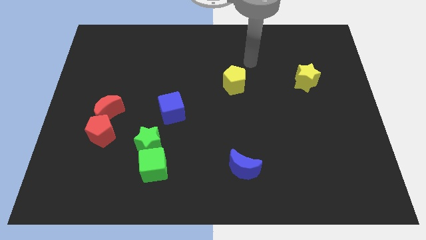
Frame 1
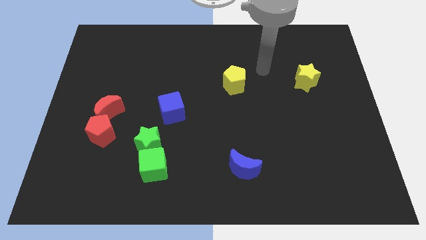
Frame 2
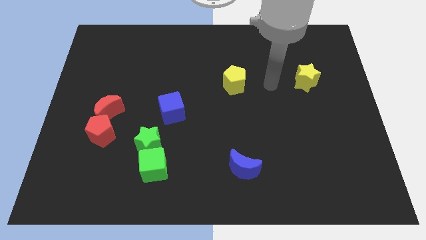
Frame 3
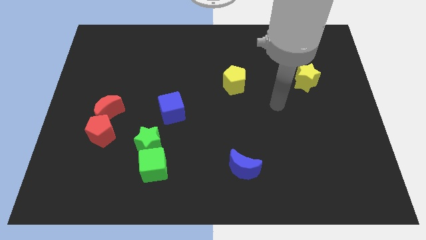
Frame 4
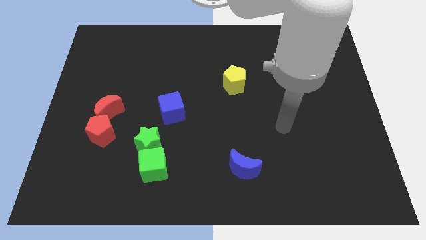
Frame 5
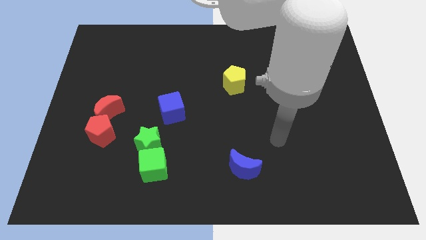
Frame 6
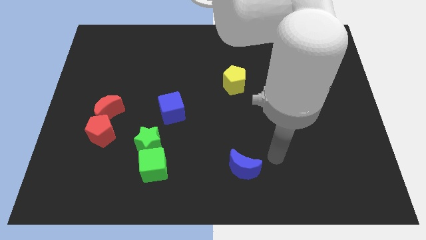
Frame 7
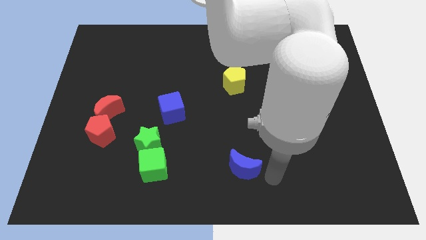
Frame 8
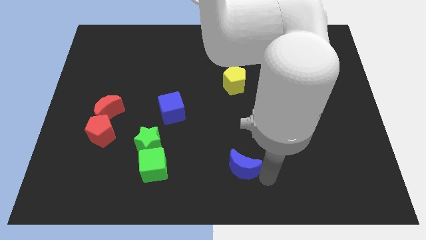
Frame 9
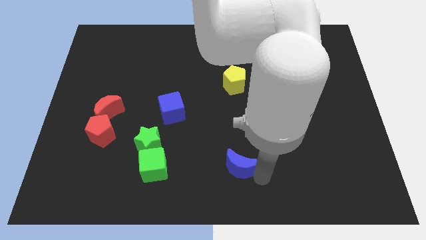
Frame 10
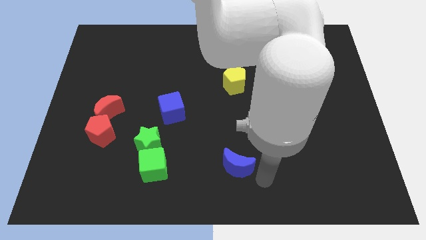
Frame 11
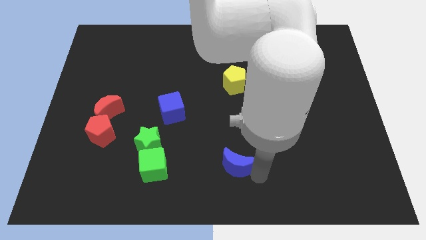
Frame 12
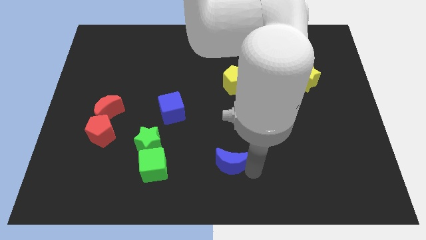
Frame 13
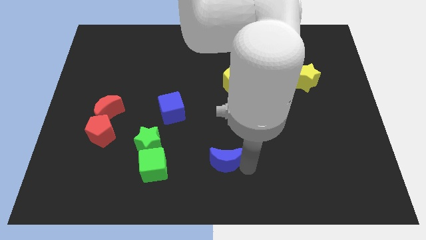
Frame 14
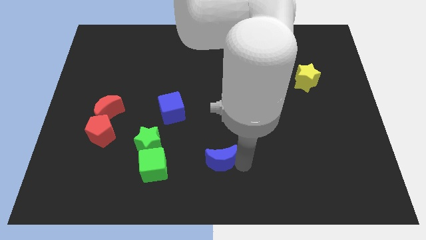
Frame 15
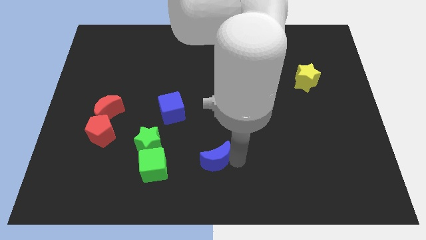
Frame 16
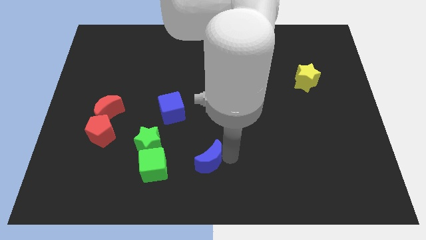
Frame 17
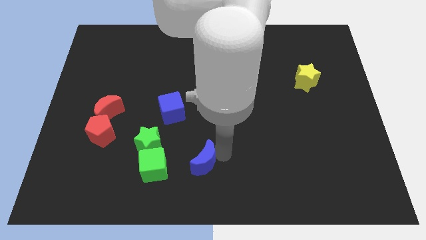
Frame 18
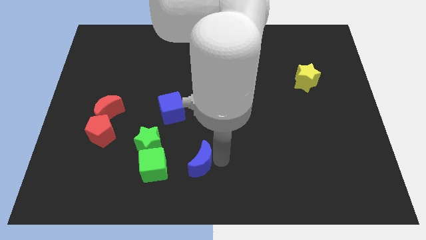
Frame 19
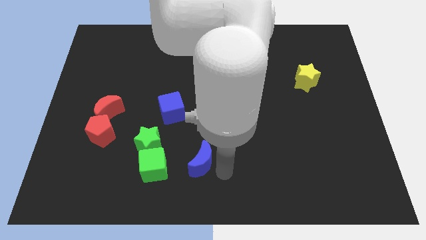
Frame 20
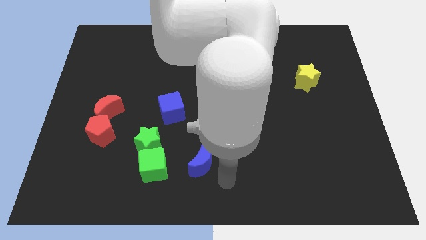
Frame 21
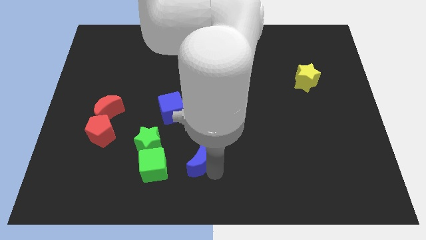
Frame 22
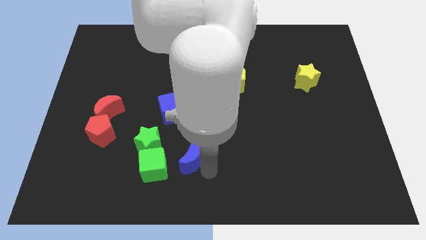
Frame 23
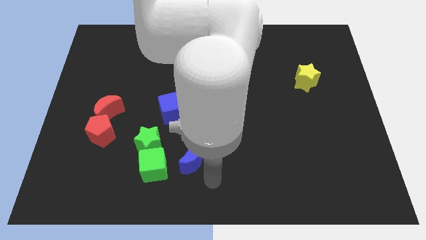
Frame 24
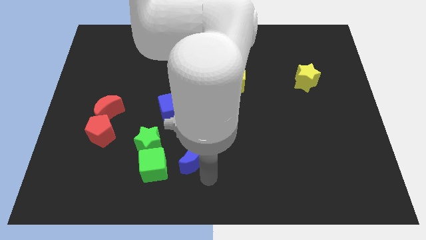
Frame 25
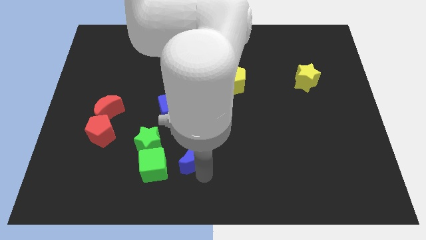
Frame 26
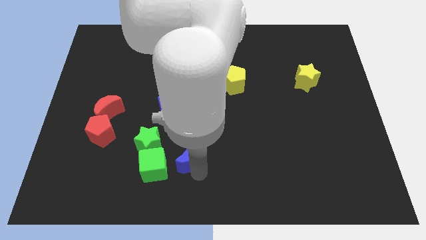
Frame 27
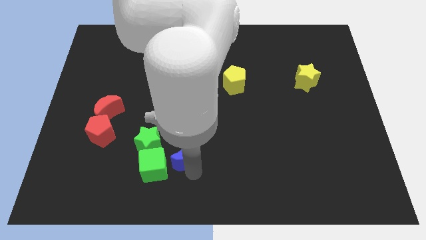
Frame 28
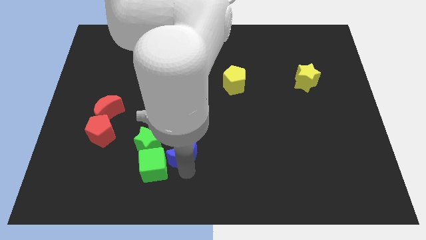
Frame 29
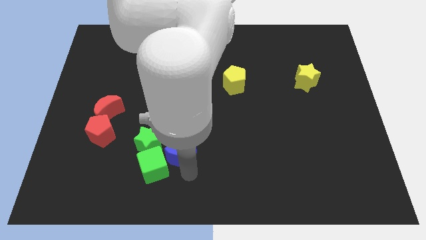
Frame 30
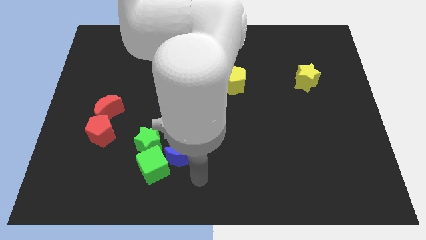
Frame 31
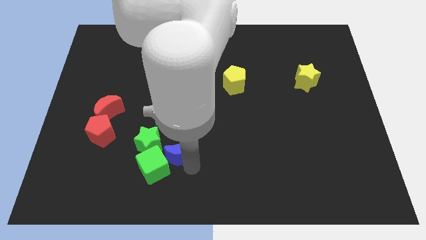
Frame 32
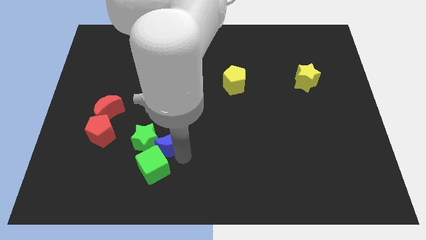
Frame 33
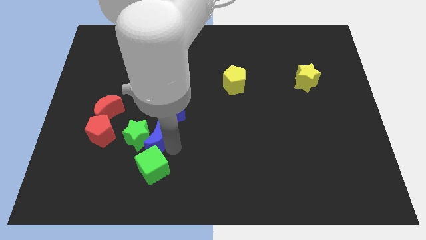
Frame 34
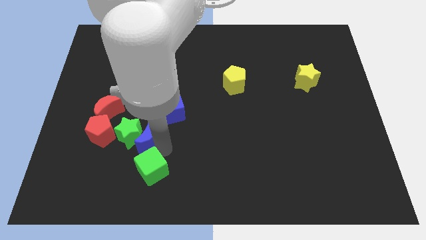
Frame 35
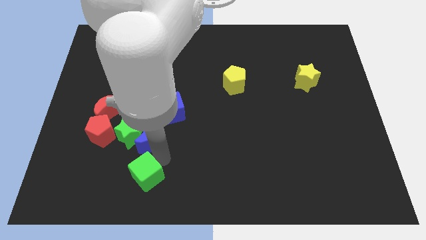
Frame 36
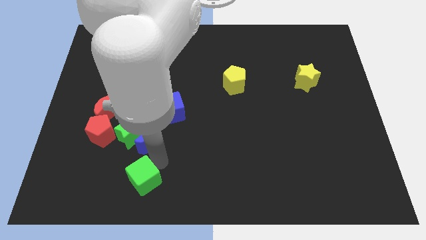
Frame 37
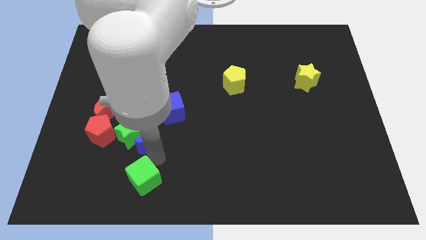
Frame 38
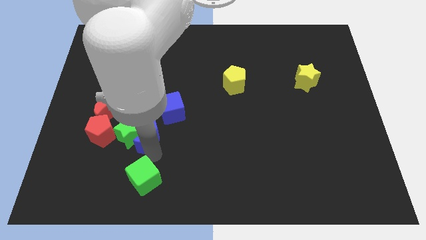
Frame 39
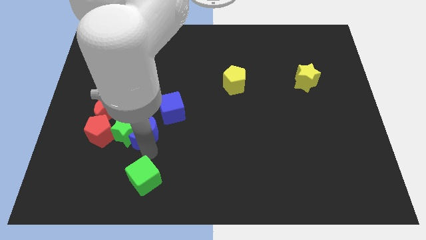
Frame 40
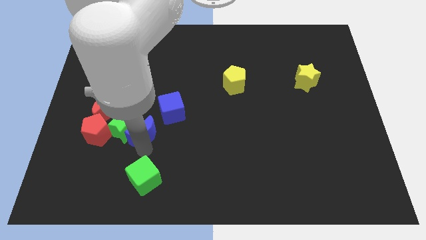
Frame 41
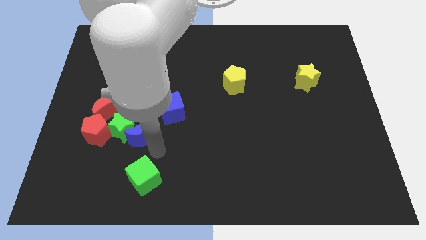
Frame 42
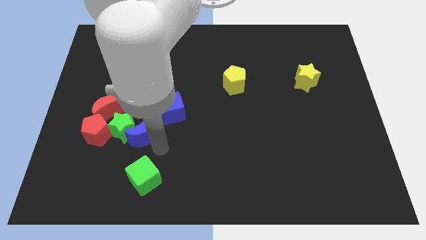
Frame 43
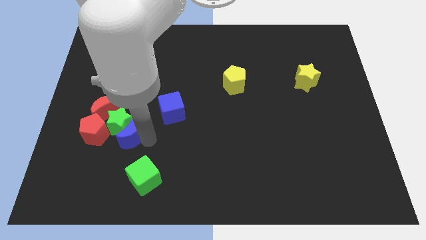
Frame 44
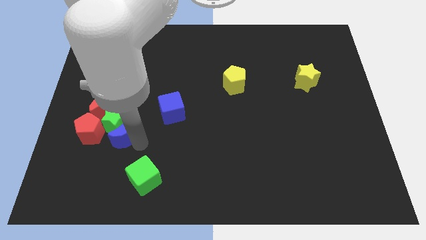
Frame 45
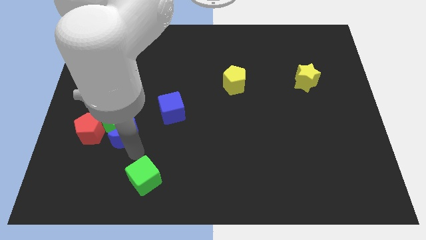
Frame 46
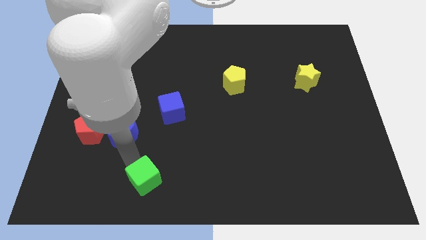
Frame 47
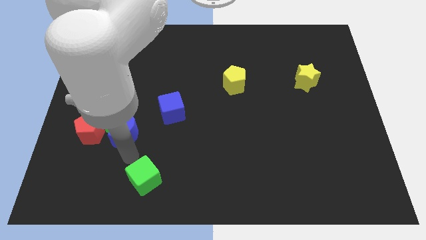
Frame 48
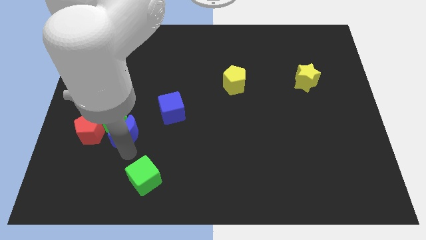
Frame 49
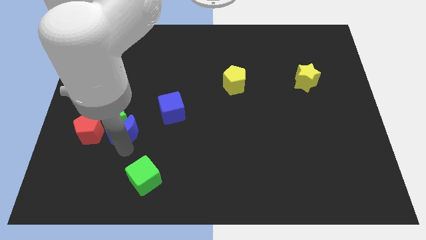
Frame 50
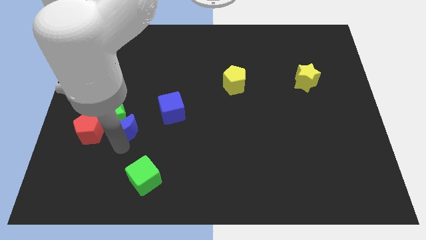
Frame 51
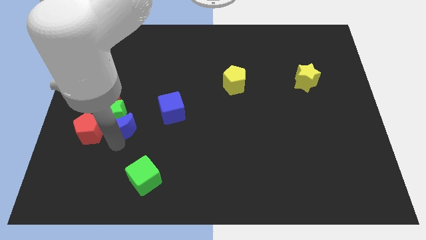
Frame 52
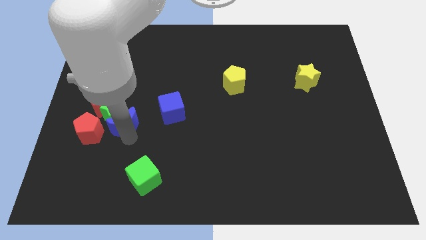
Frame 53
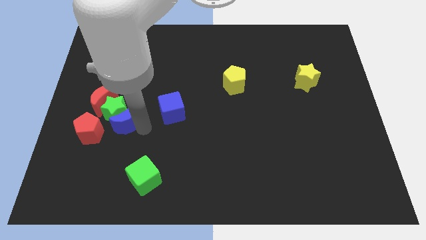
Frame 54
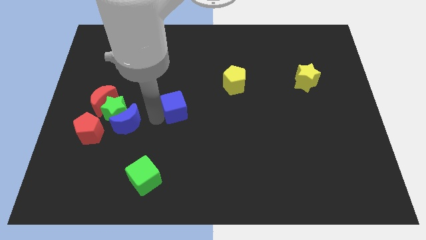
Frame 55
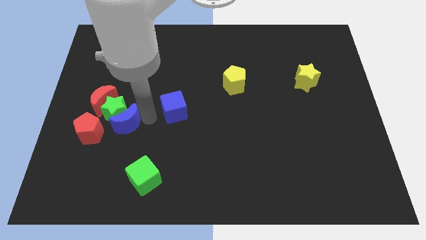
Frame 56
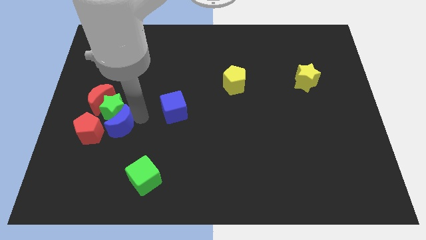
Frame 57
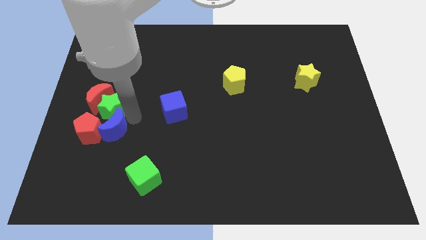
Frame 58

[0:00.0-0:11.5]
slide the blue moon next to the red pentagon

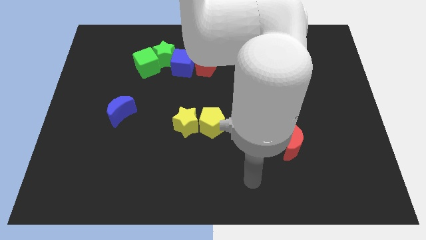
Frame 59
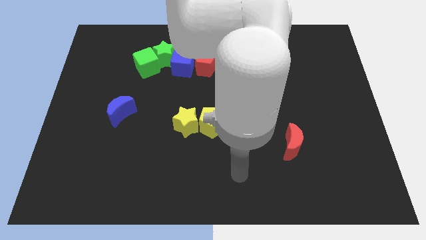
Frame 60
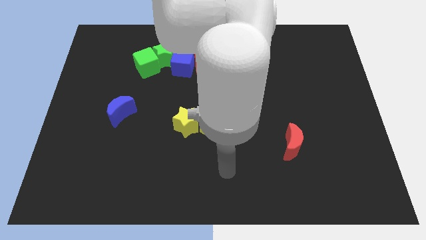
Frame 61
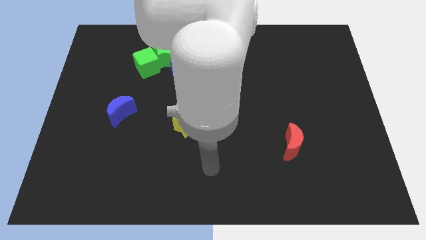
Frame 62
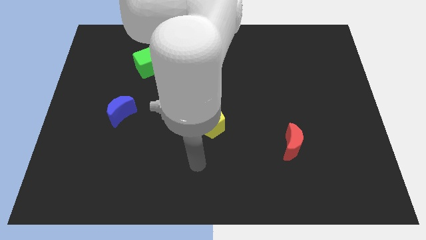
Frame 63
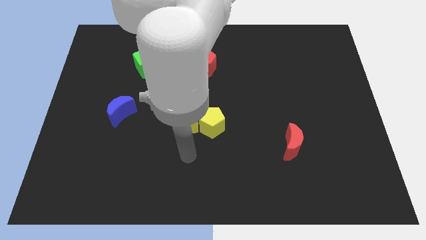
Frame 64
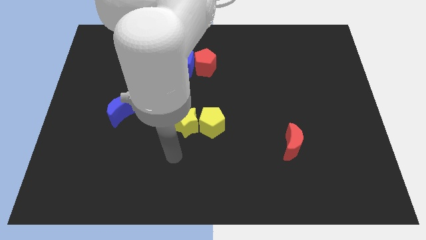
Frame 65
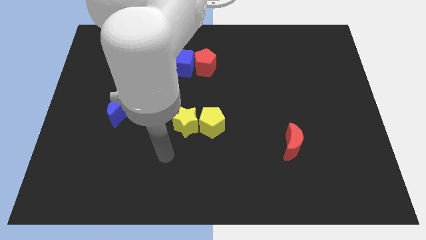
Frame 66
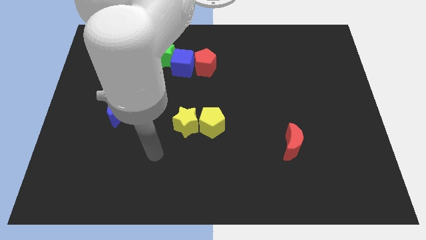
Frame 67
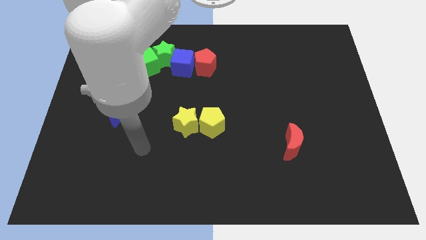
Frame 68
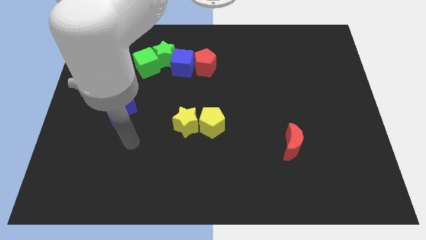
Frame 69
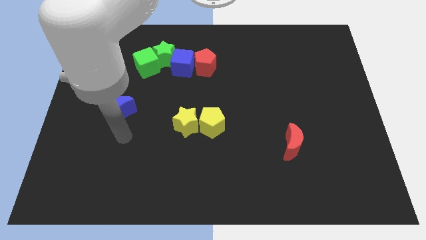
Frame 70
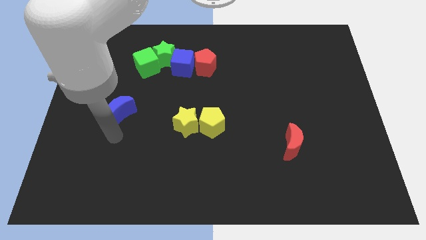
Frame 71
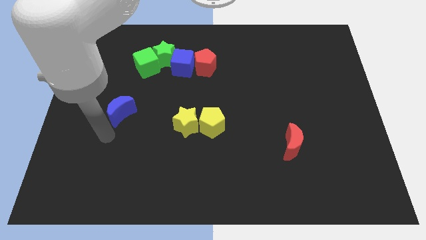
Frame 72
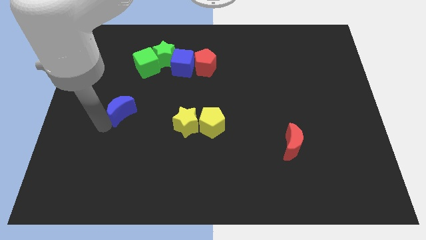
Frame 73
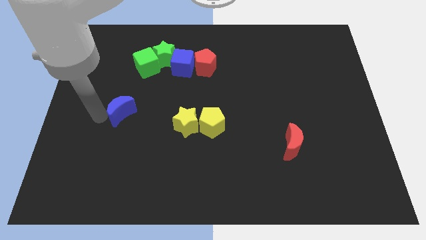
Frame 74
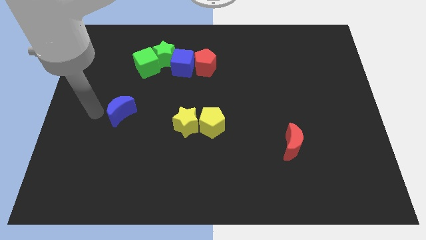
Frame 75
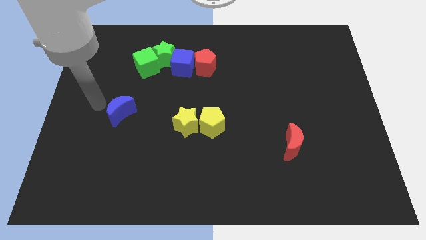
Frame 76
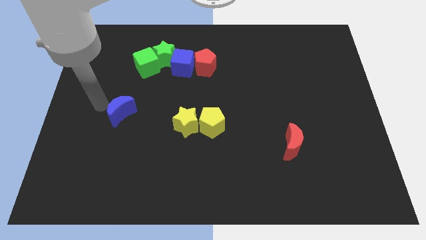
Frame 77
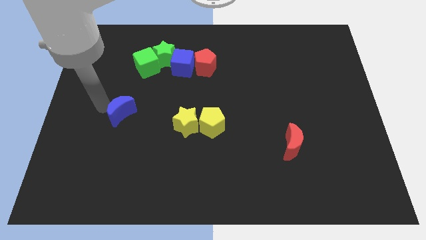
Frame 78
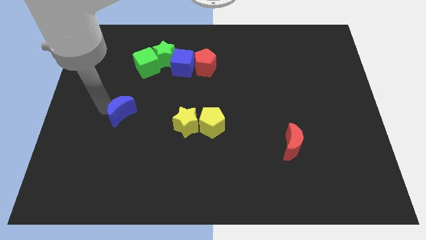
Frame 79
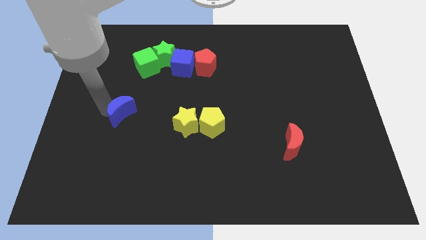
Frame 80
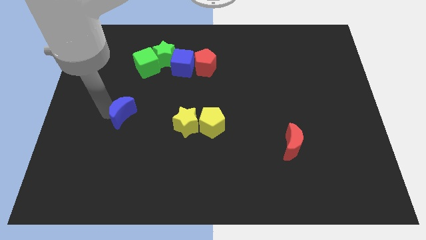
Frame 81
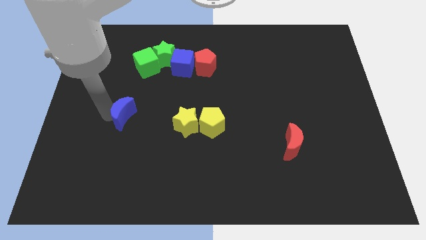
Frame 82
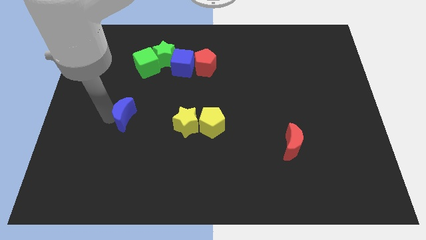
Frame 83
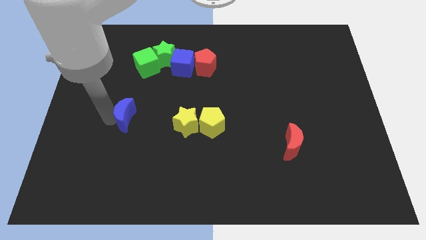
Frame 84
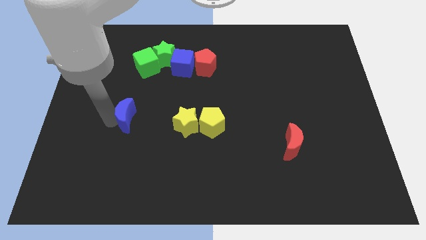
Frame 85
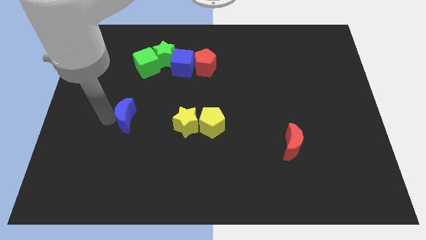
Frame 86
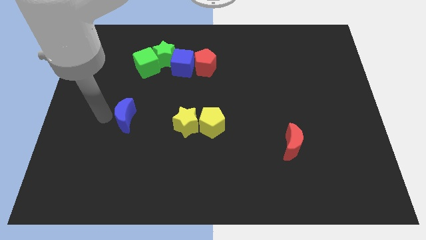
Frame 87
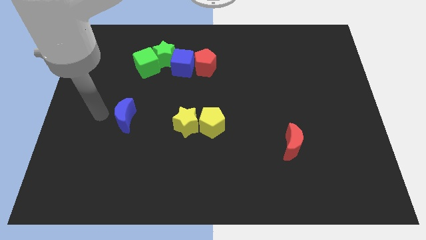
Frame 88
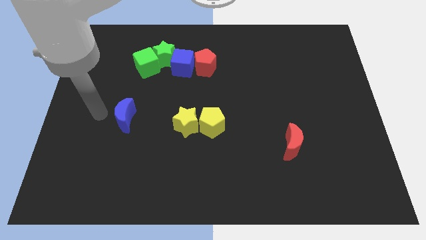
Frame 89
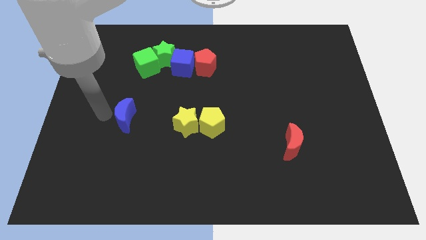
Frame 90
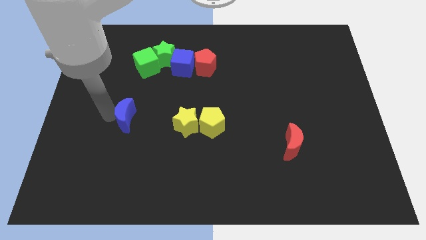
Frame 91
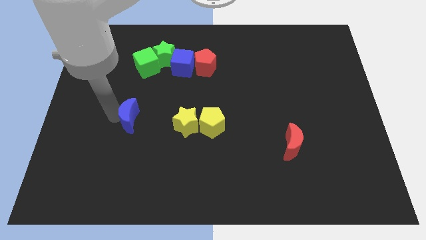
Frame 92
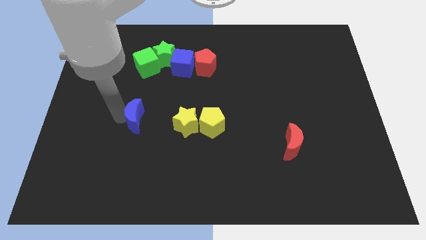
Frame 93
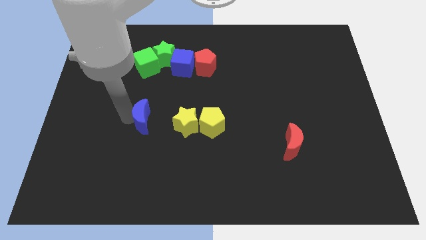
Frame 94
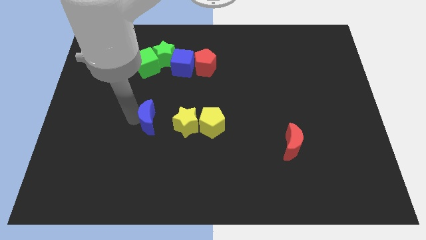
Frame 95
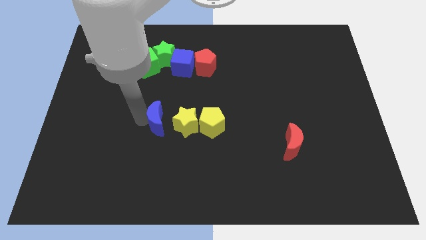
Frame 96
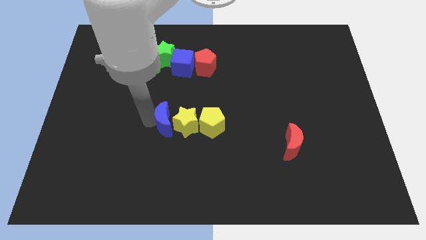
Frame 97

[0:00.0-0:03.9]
move the blue moon to the yellow star
